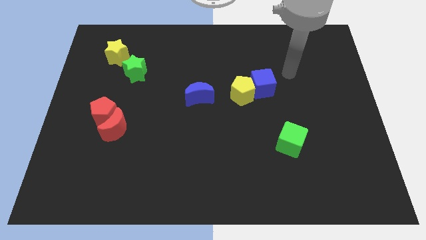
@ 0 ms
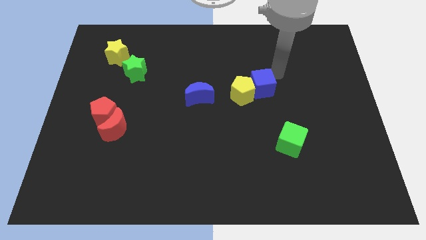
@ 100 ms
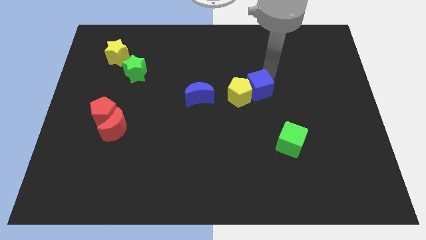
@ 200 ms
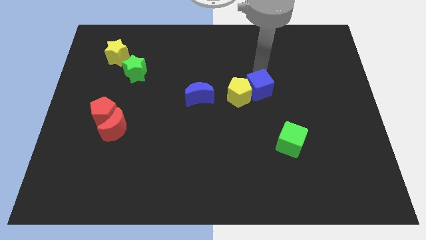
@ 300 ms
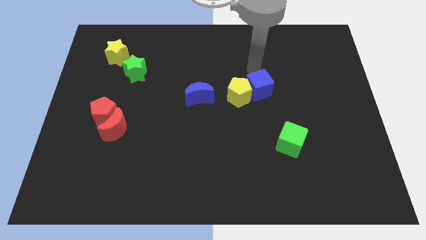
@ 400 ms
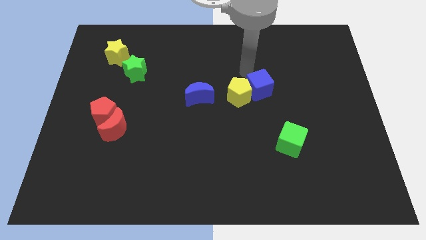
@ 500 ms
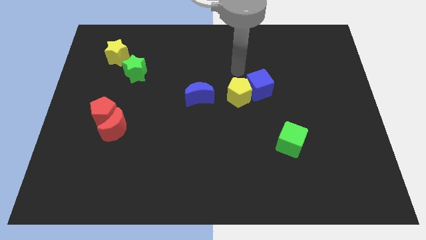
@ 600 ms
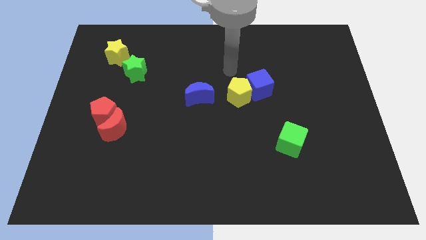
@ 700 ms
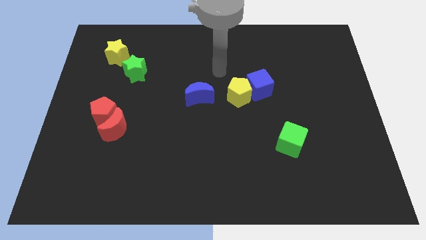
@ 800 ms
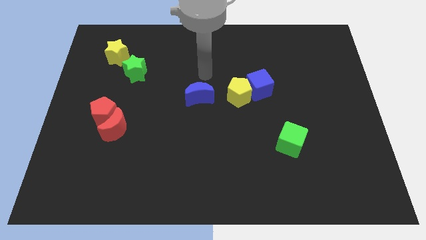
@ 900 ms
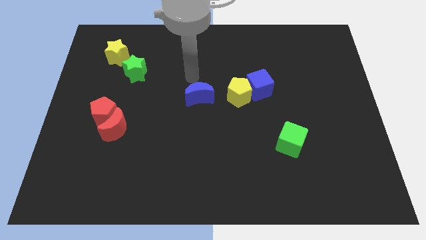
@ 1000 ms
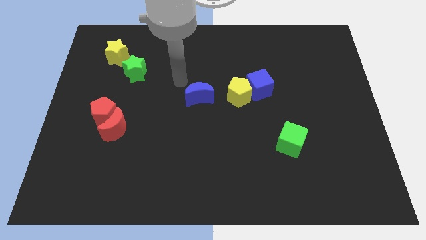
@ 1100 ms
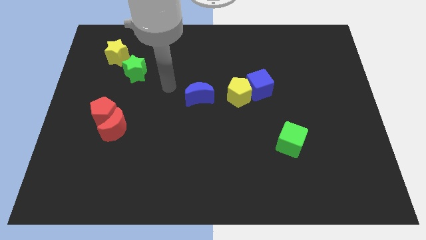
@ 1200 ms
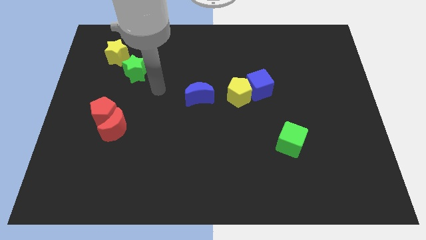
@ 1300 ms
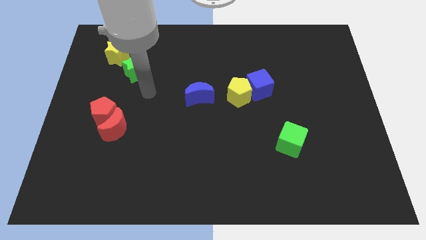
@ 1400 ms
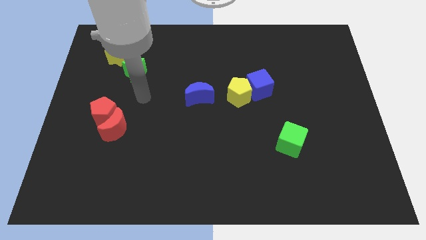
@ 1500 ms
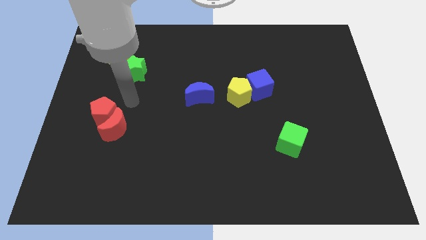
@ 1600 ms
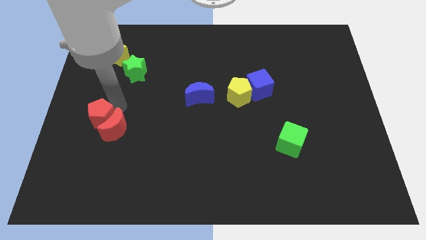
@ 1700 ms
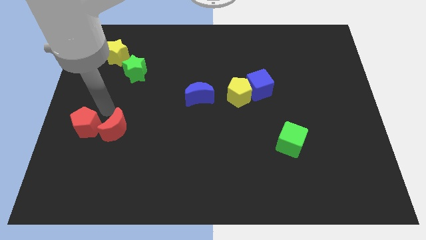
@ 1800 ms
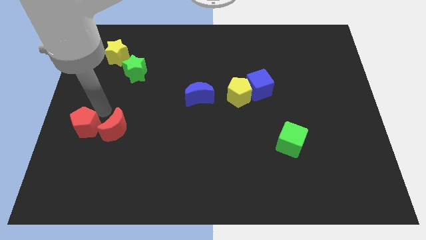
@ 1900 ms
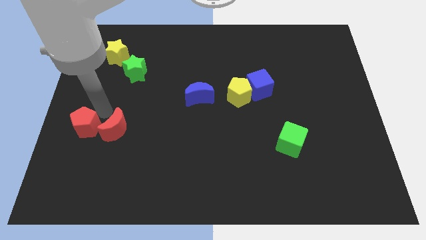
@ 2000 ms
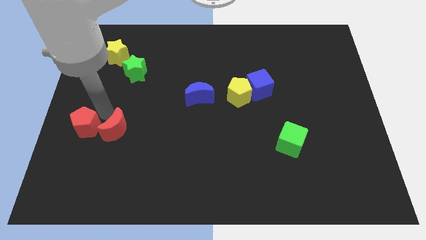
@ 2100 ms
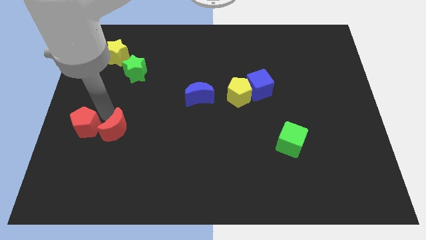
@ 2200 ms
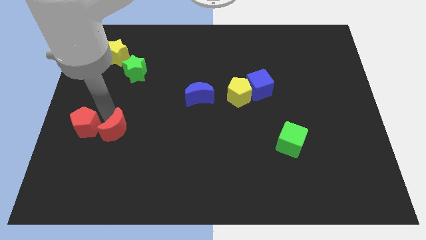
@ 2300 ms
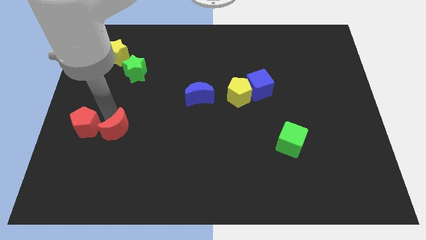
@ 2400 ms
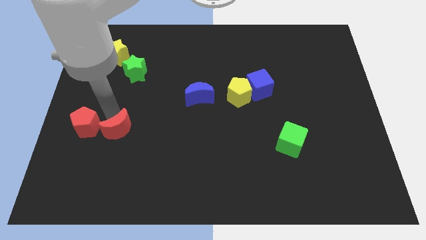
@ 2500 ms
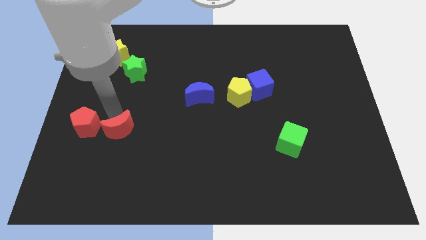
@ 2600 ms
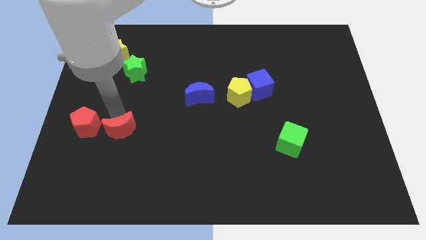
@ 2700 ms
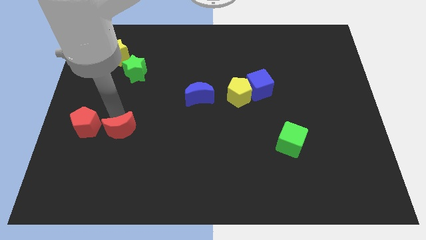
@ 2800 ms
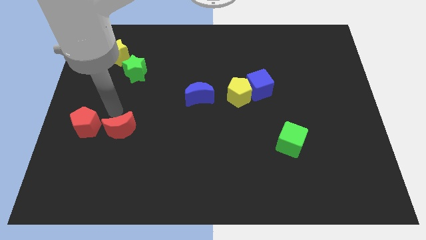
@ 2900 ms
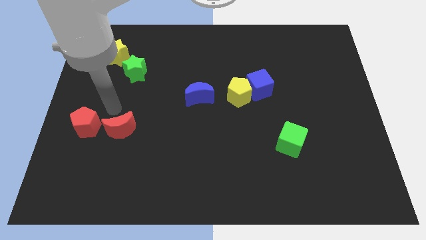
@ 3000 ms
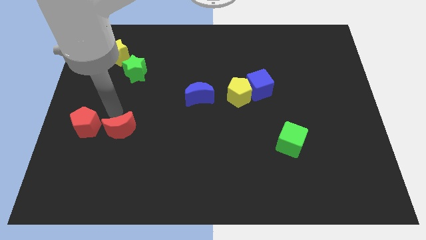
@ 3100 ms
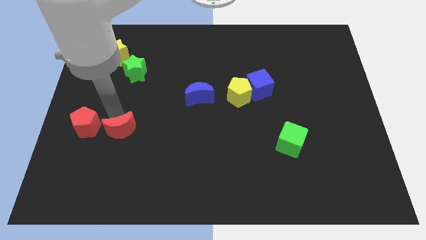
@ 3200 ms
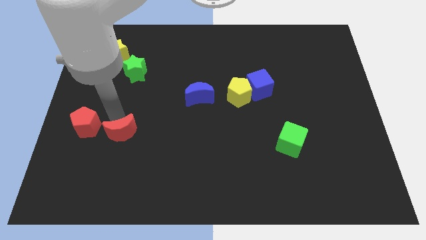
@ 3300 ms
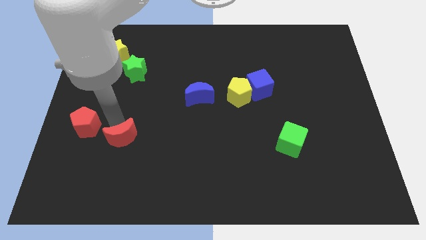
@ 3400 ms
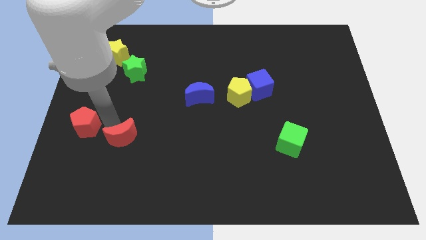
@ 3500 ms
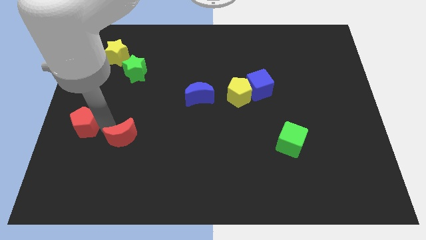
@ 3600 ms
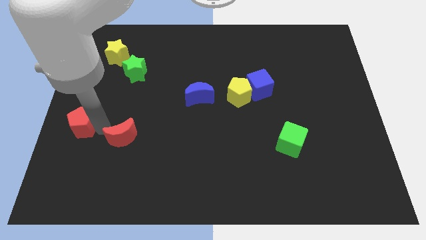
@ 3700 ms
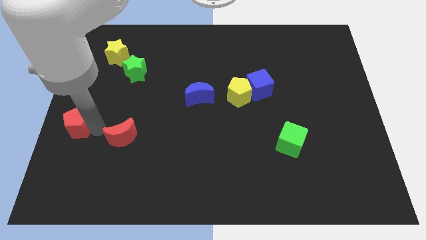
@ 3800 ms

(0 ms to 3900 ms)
move the red moon away from the red pentagon

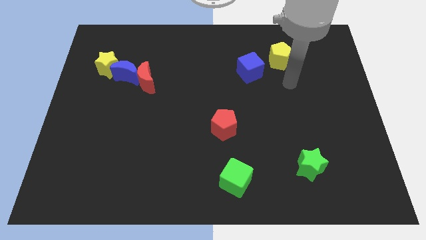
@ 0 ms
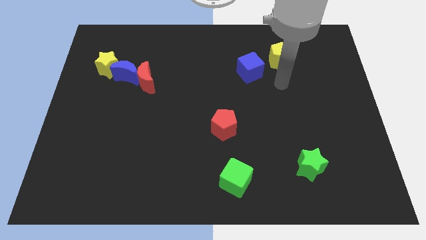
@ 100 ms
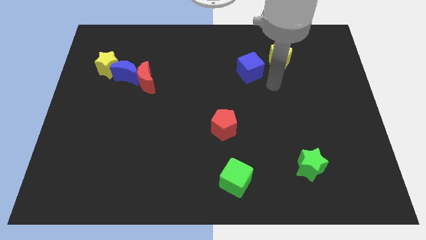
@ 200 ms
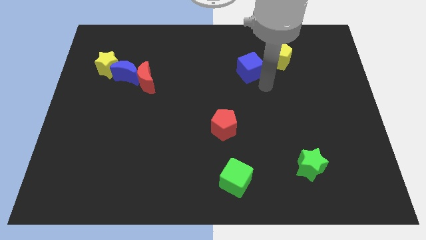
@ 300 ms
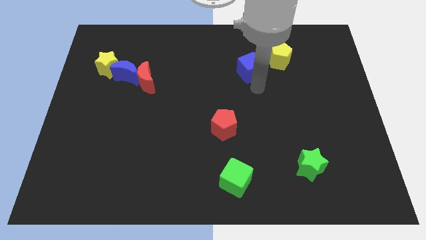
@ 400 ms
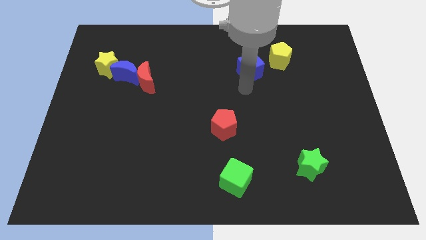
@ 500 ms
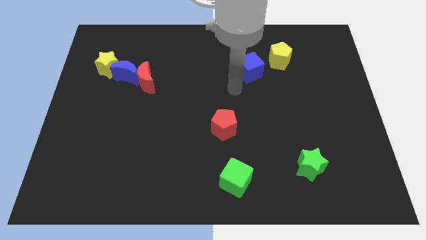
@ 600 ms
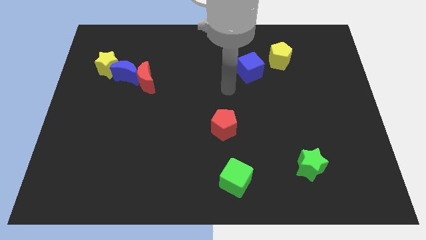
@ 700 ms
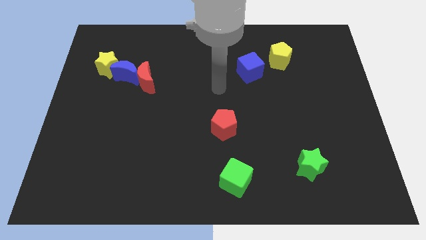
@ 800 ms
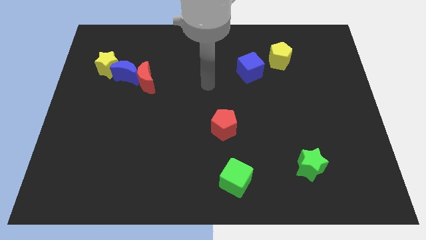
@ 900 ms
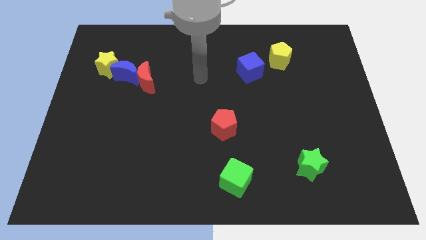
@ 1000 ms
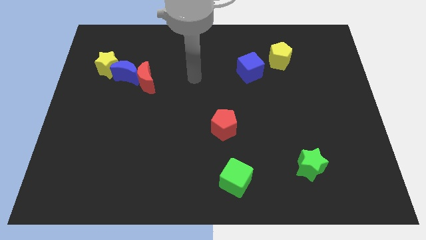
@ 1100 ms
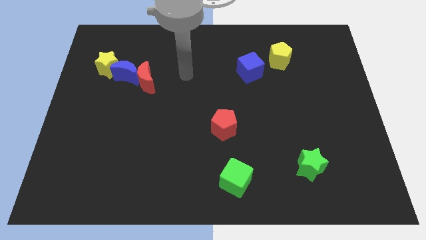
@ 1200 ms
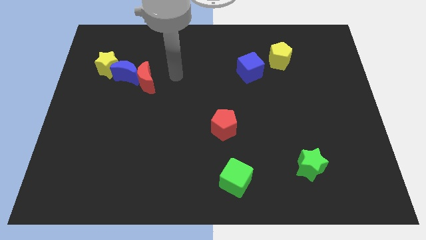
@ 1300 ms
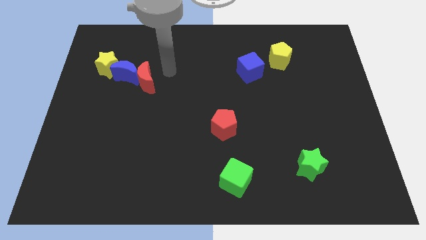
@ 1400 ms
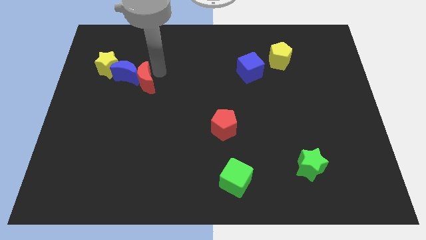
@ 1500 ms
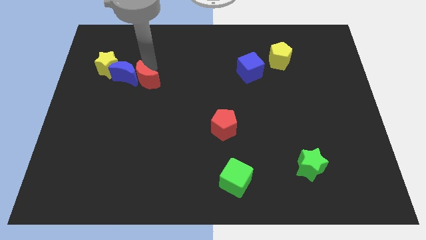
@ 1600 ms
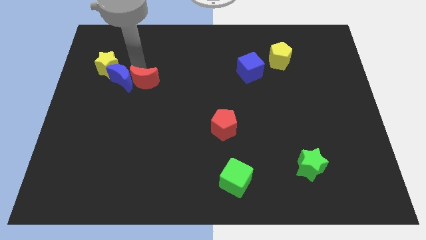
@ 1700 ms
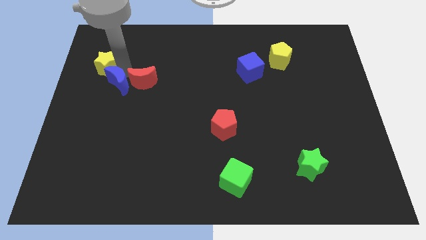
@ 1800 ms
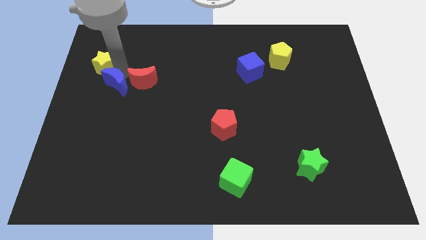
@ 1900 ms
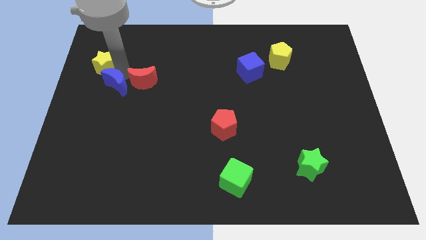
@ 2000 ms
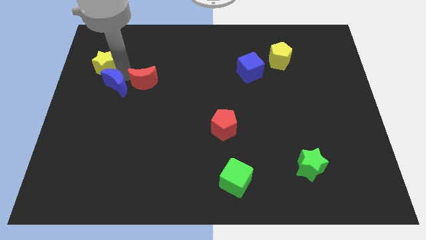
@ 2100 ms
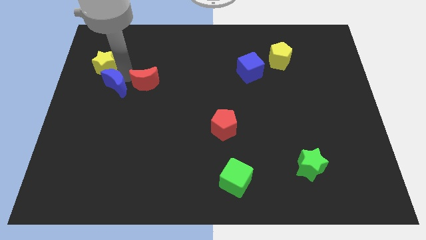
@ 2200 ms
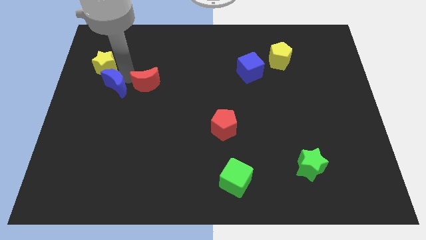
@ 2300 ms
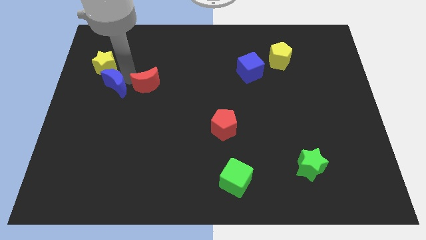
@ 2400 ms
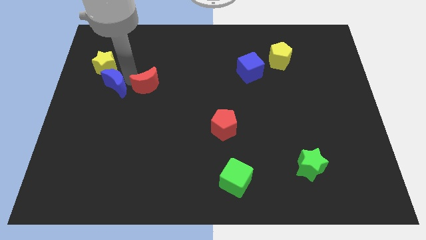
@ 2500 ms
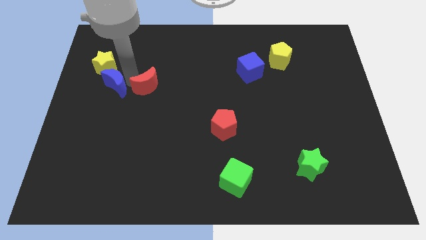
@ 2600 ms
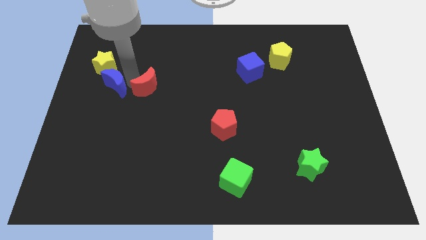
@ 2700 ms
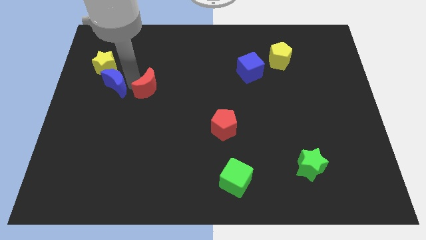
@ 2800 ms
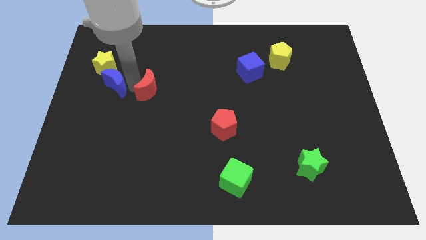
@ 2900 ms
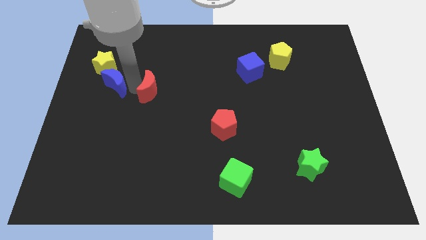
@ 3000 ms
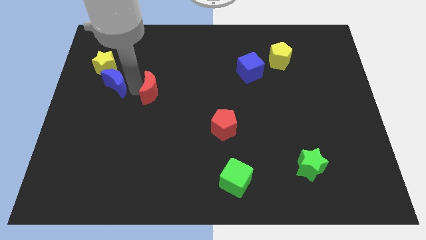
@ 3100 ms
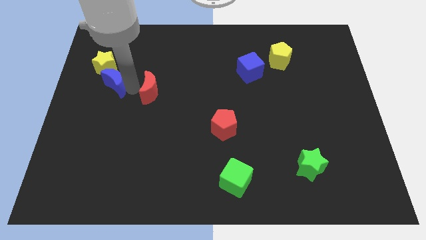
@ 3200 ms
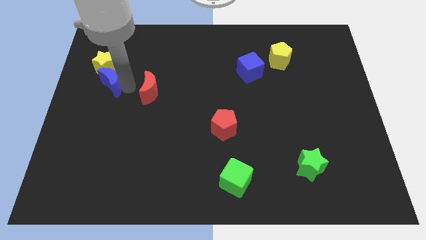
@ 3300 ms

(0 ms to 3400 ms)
move the red moon away from the blue moon

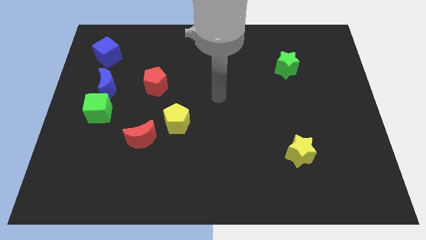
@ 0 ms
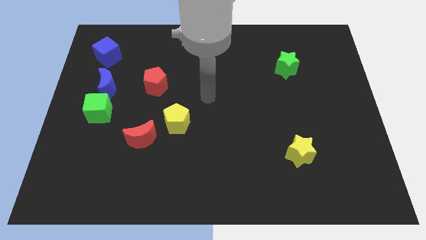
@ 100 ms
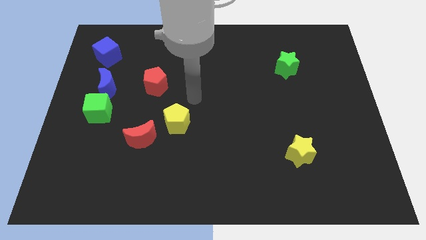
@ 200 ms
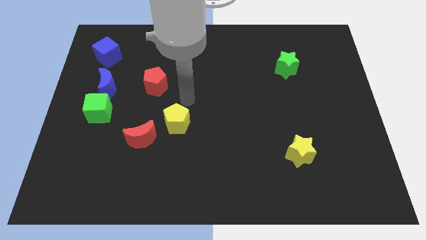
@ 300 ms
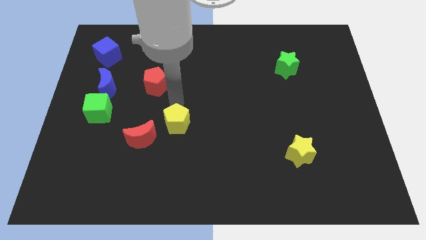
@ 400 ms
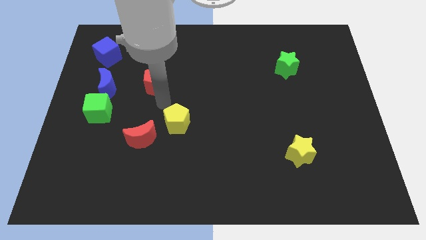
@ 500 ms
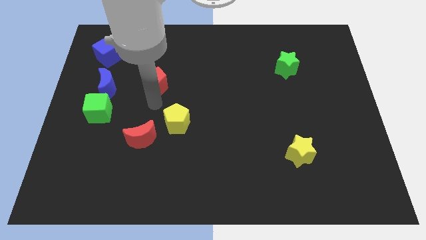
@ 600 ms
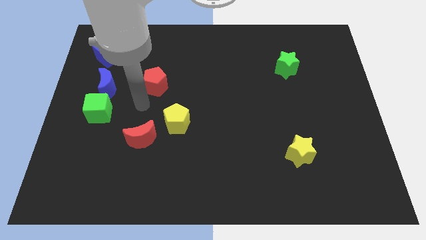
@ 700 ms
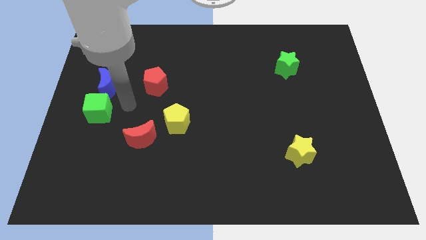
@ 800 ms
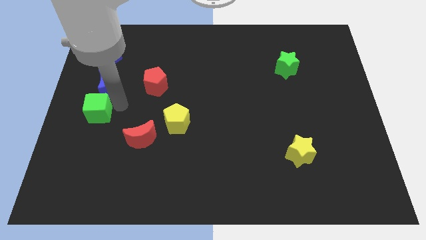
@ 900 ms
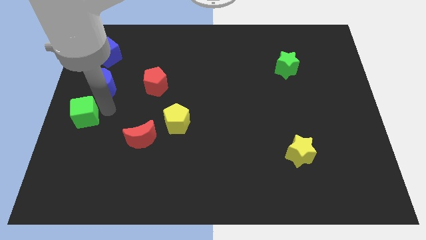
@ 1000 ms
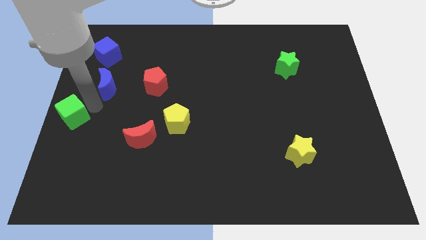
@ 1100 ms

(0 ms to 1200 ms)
separate the blue moon from the green cube

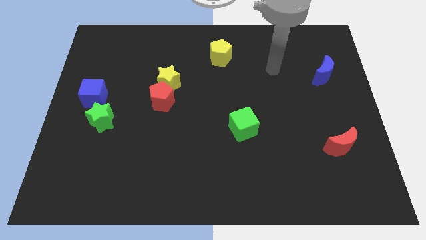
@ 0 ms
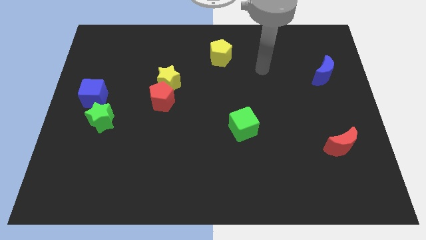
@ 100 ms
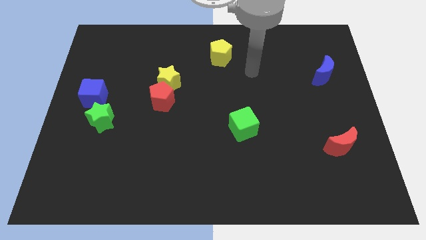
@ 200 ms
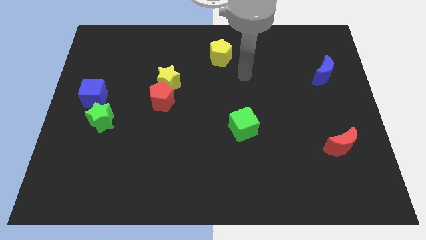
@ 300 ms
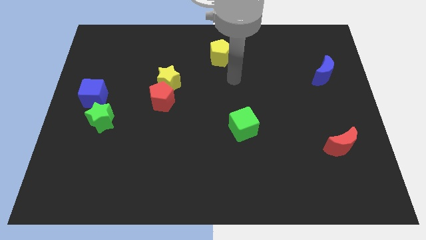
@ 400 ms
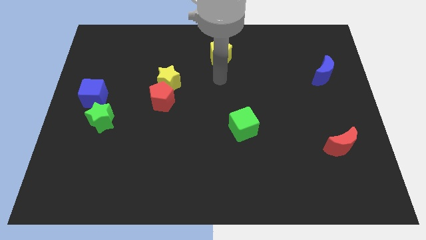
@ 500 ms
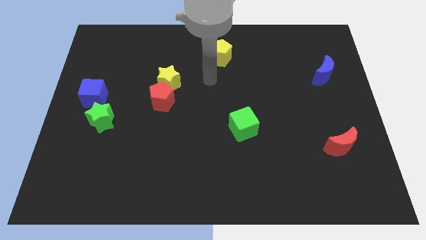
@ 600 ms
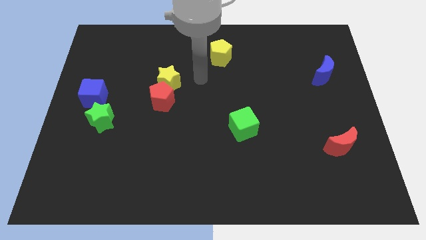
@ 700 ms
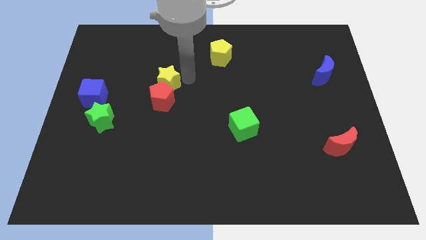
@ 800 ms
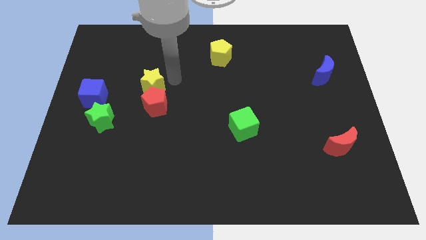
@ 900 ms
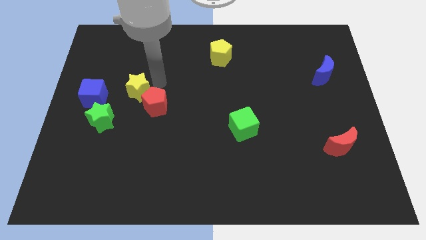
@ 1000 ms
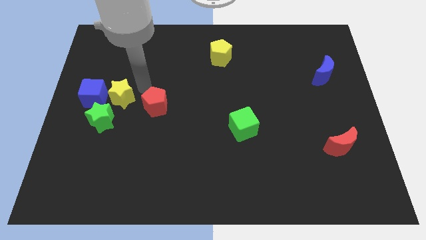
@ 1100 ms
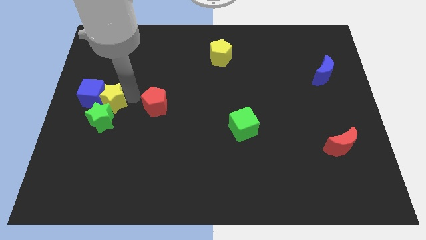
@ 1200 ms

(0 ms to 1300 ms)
move the red pentagon away from the yellow star